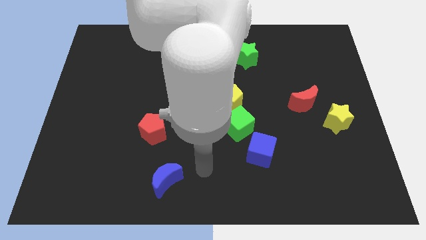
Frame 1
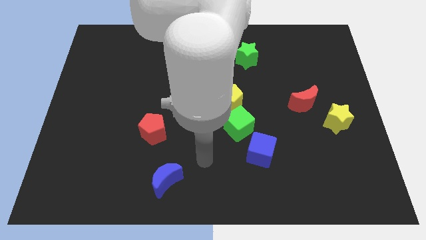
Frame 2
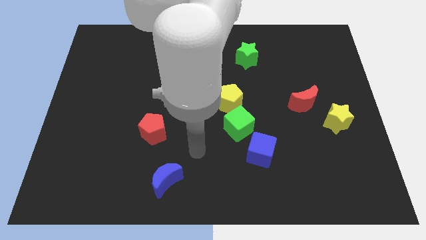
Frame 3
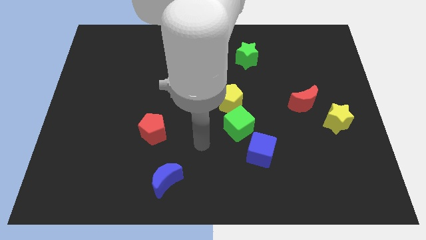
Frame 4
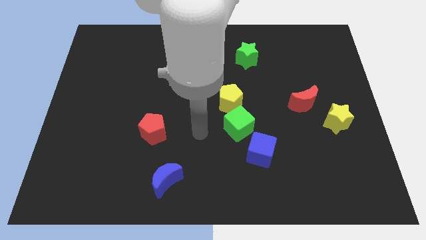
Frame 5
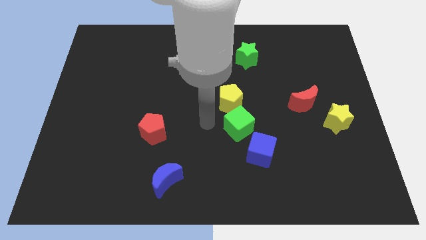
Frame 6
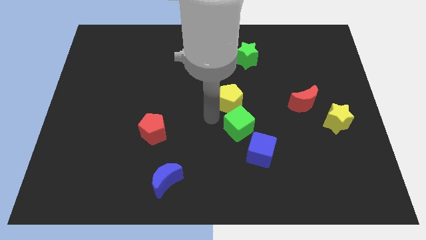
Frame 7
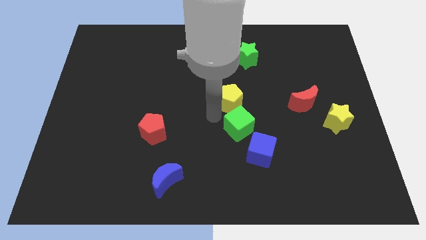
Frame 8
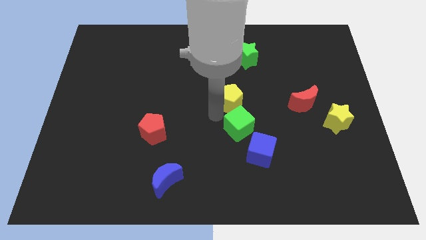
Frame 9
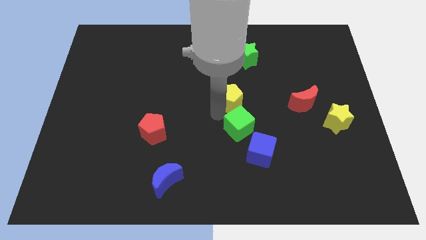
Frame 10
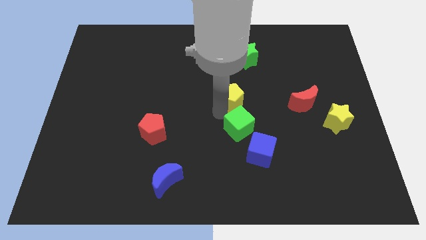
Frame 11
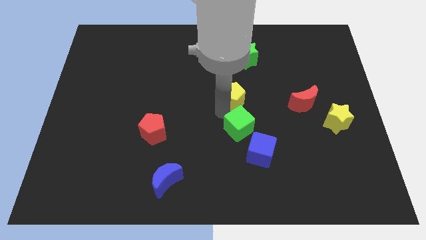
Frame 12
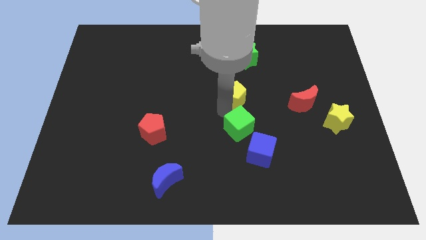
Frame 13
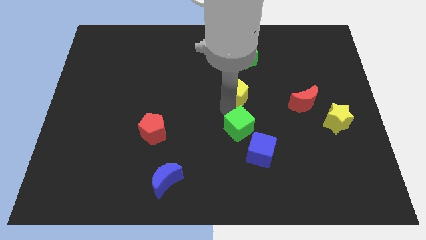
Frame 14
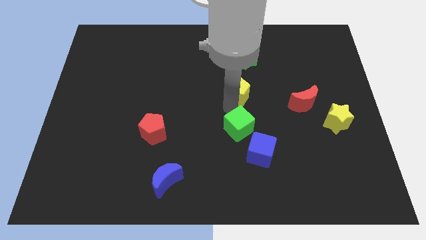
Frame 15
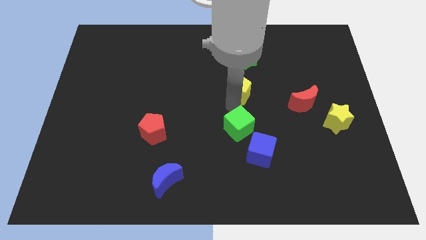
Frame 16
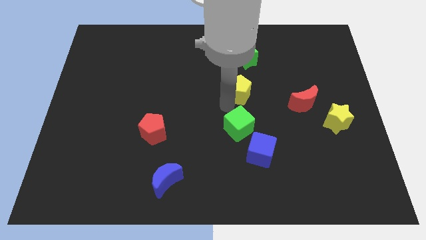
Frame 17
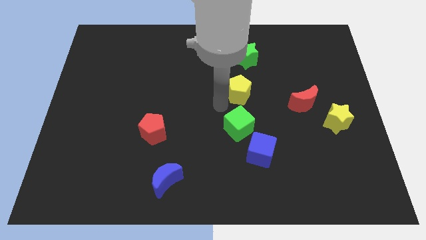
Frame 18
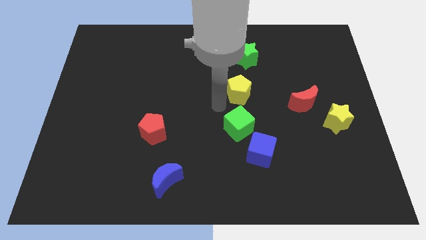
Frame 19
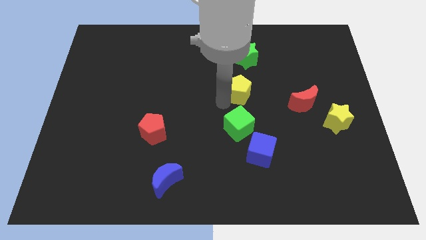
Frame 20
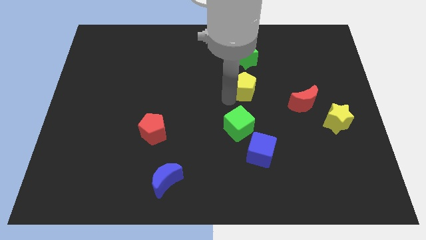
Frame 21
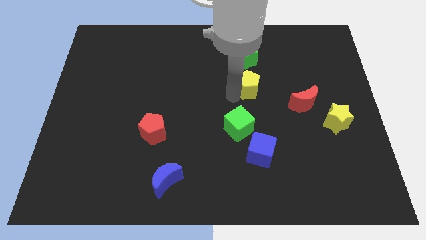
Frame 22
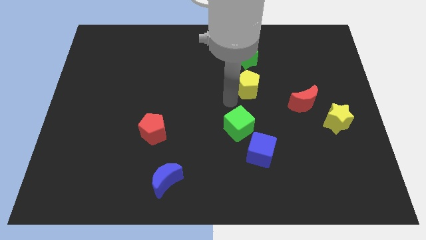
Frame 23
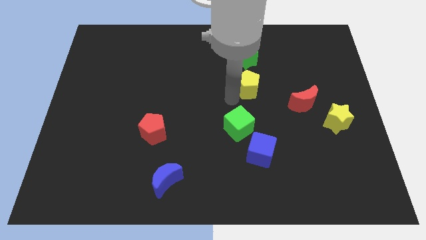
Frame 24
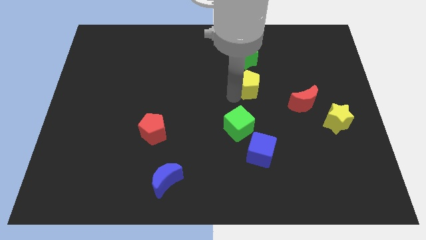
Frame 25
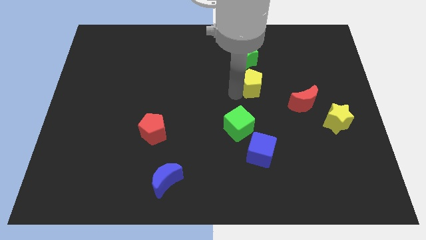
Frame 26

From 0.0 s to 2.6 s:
slightly push the yellow pentagon diagonally up and to the right

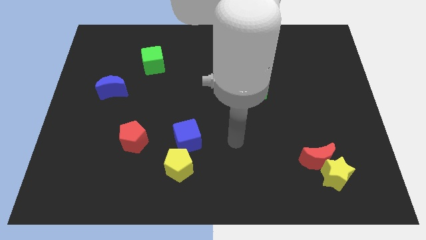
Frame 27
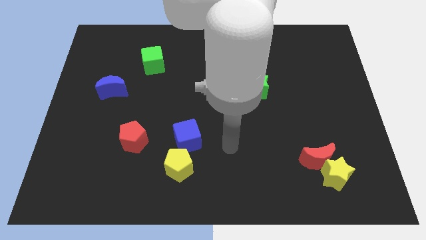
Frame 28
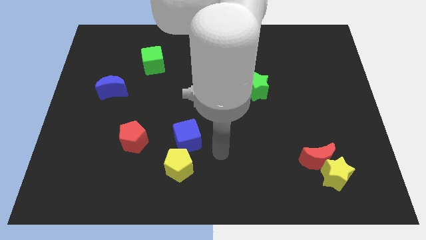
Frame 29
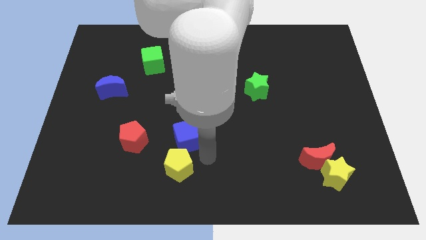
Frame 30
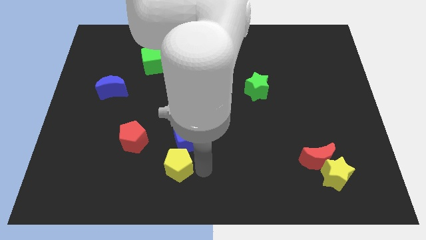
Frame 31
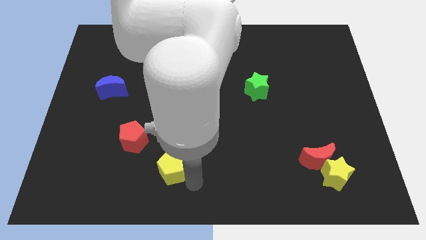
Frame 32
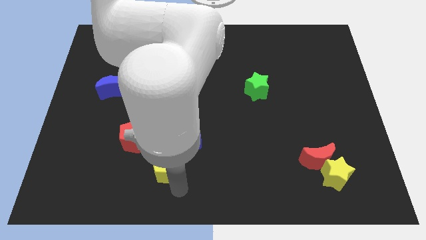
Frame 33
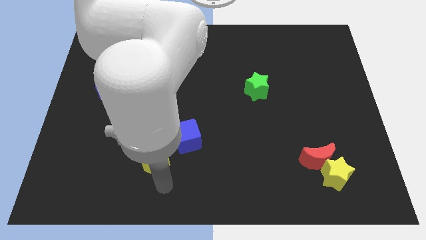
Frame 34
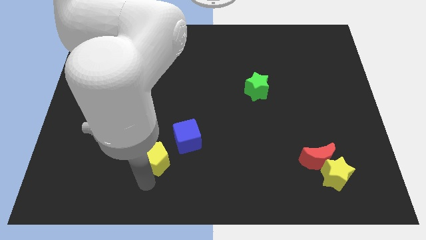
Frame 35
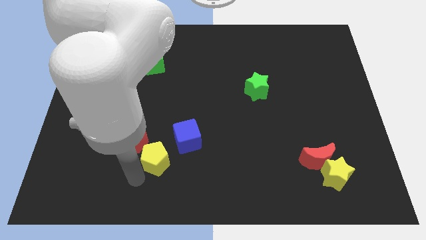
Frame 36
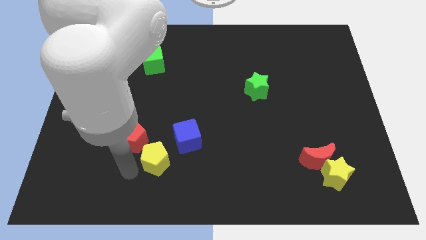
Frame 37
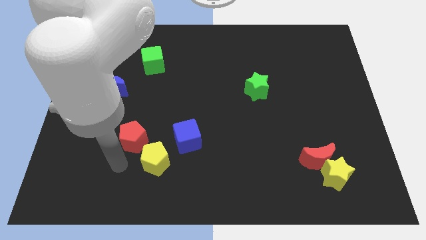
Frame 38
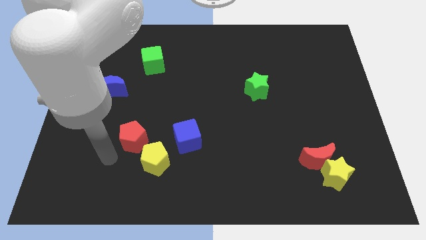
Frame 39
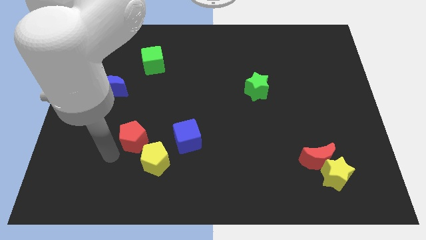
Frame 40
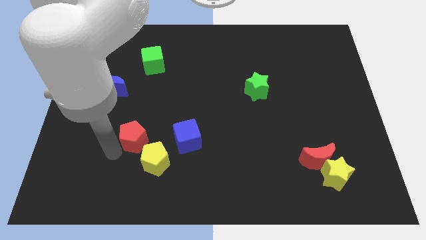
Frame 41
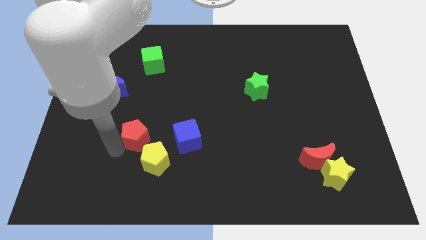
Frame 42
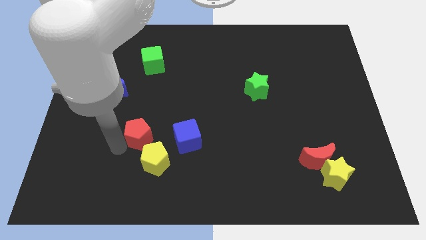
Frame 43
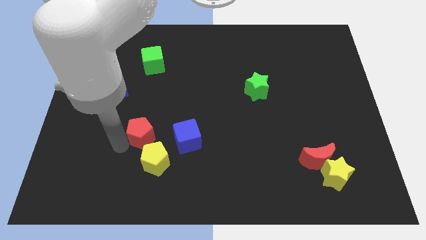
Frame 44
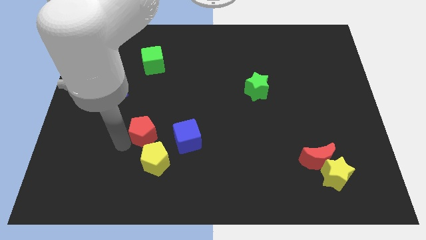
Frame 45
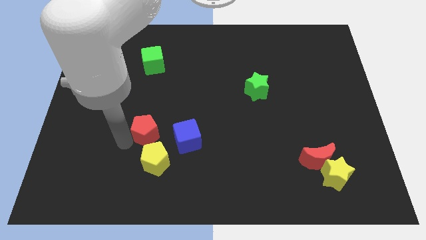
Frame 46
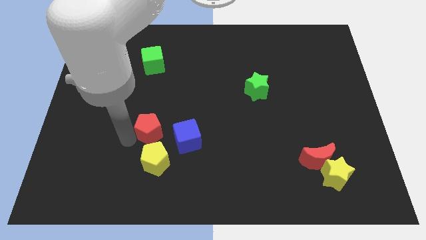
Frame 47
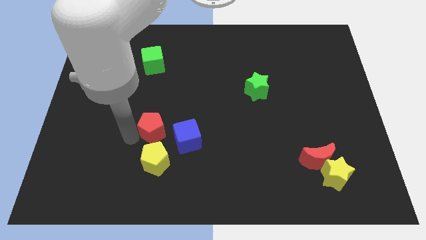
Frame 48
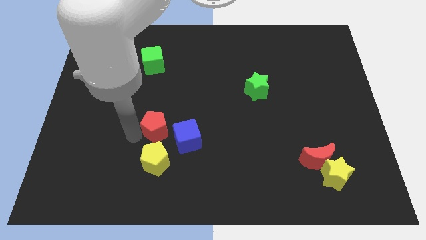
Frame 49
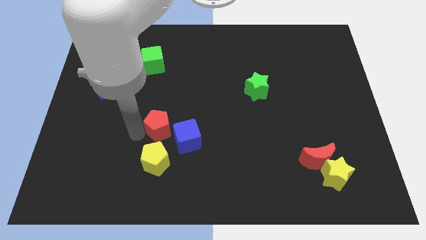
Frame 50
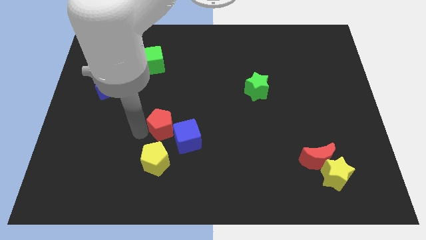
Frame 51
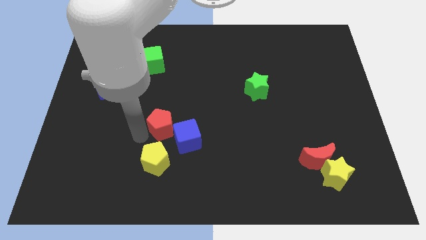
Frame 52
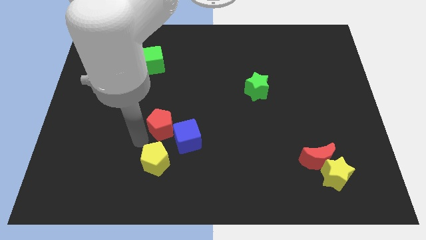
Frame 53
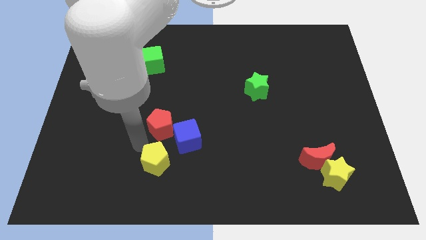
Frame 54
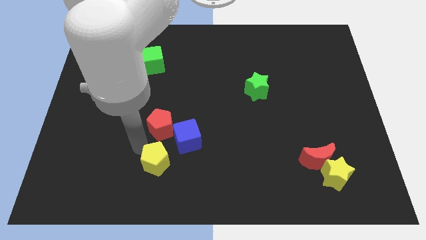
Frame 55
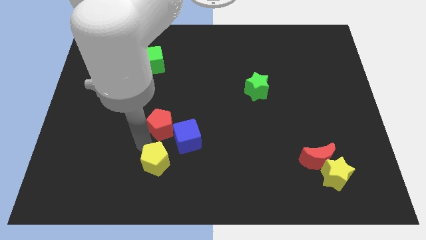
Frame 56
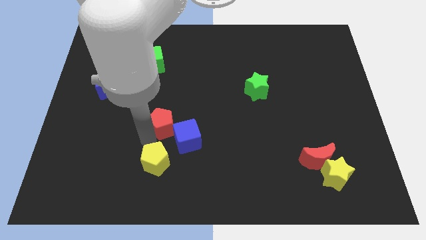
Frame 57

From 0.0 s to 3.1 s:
push the red pentagon somewhat upwards and right

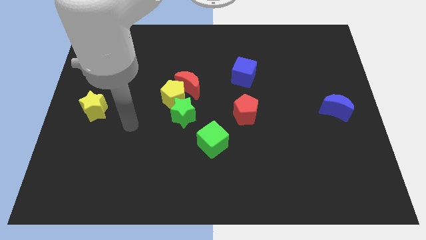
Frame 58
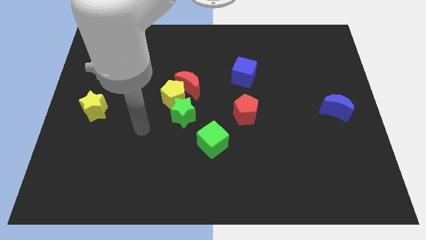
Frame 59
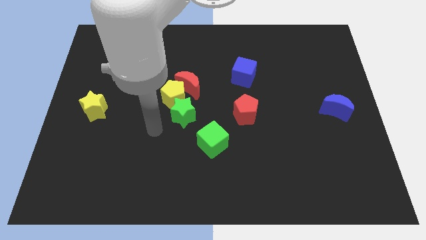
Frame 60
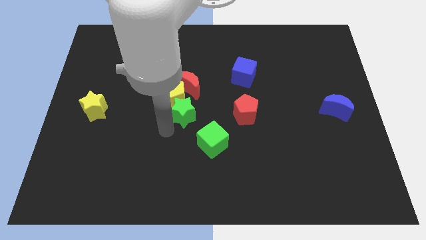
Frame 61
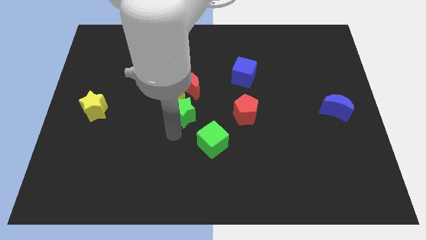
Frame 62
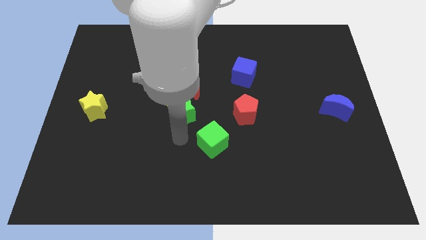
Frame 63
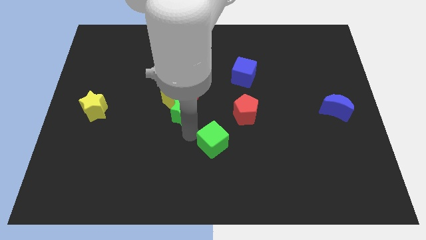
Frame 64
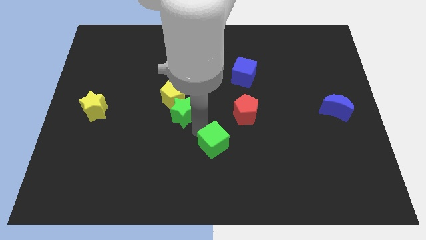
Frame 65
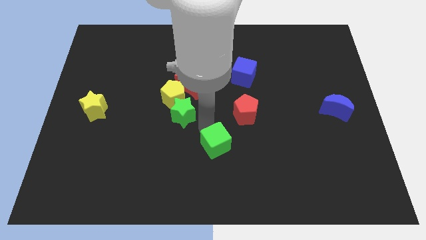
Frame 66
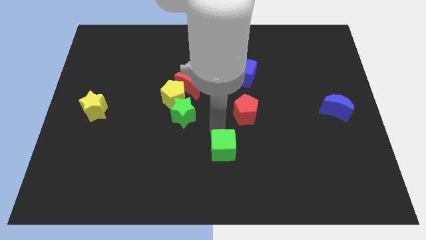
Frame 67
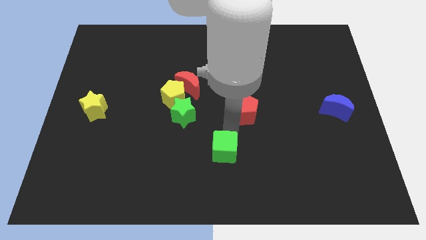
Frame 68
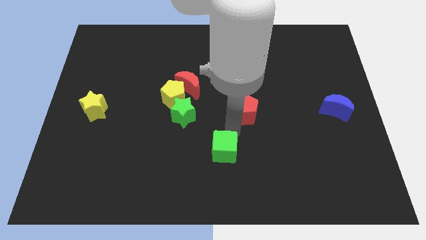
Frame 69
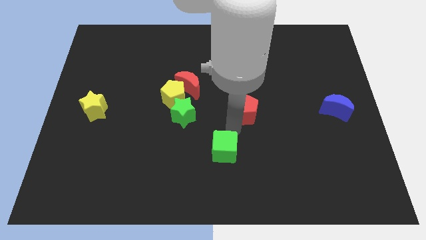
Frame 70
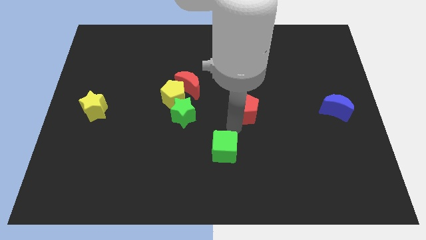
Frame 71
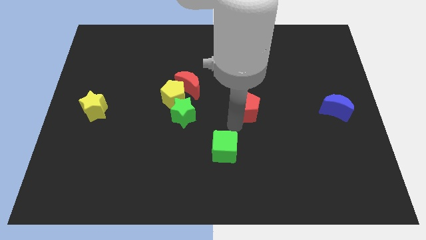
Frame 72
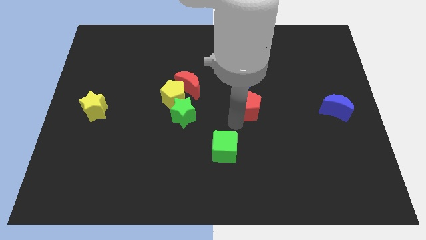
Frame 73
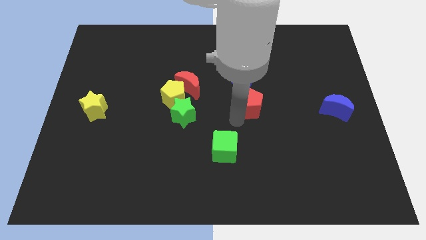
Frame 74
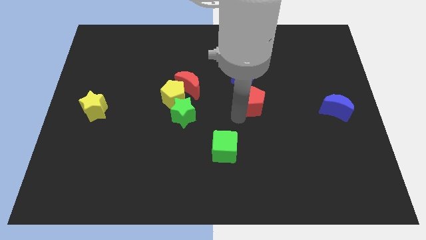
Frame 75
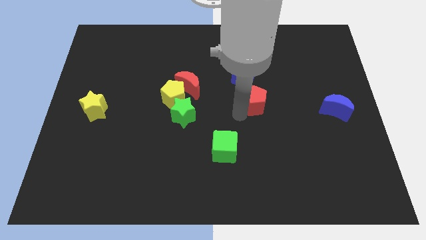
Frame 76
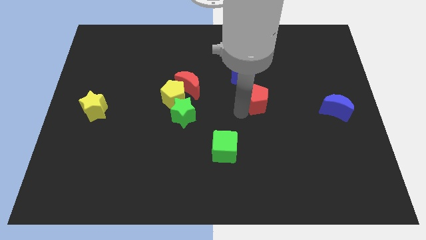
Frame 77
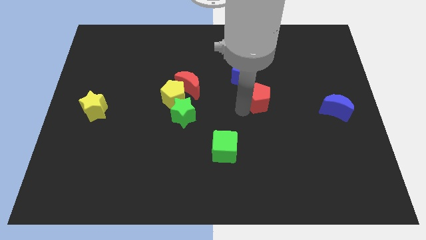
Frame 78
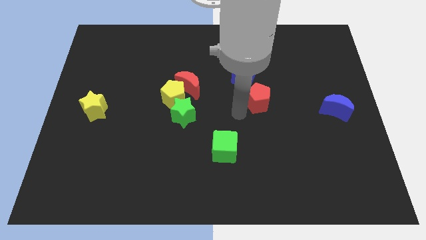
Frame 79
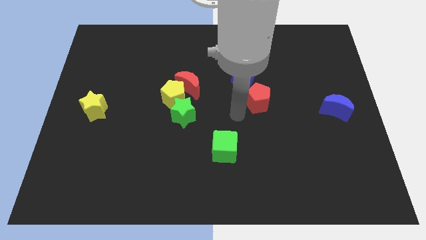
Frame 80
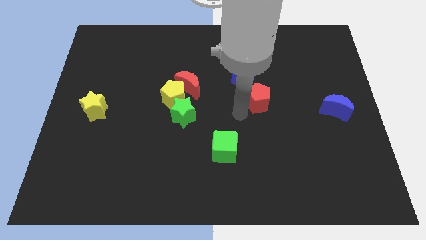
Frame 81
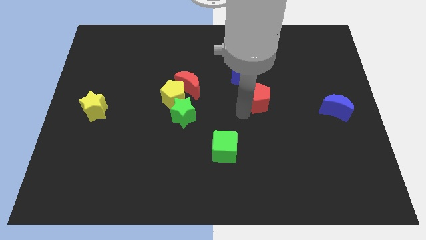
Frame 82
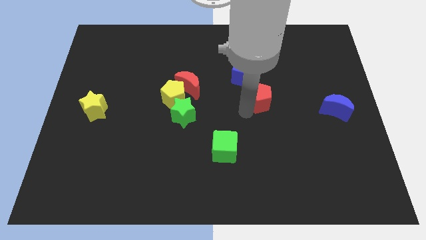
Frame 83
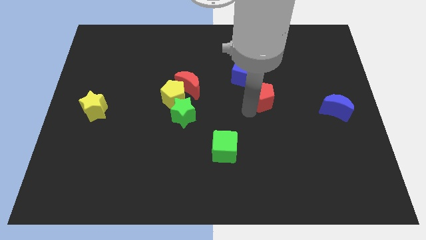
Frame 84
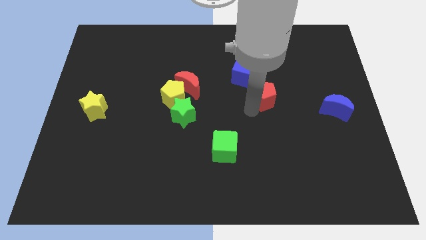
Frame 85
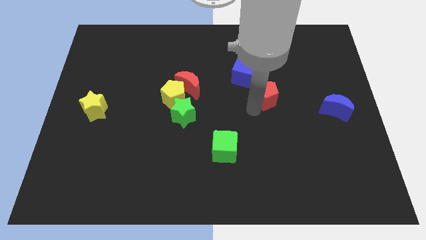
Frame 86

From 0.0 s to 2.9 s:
push the red pentagon somewhat upwards and right diagonally
